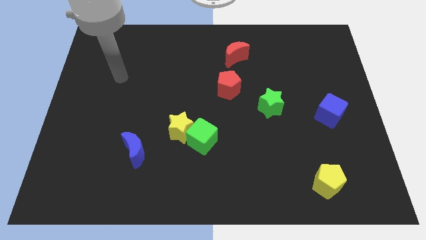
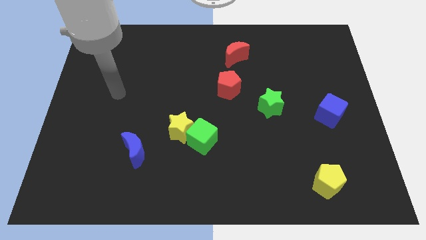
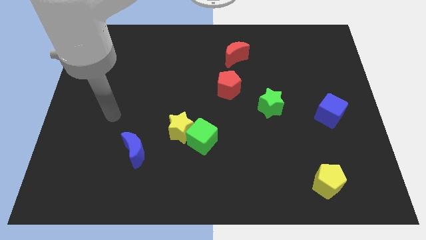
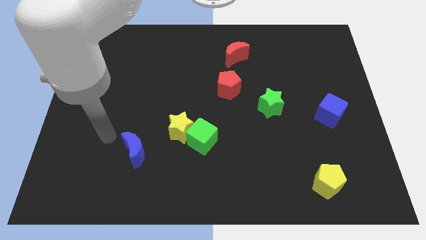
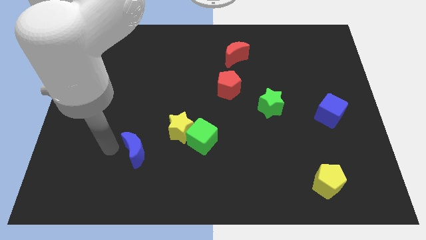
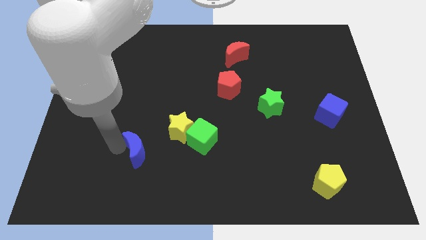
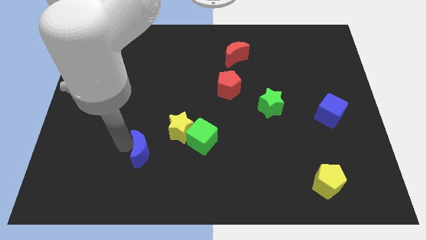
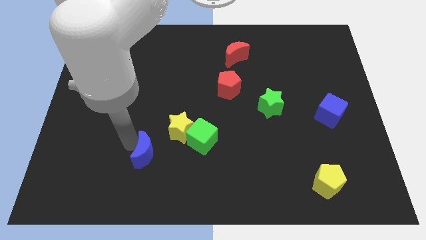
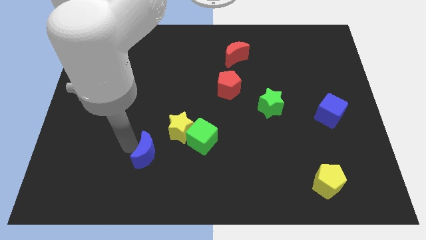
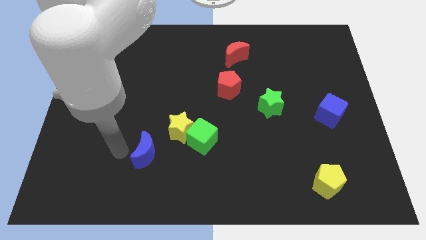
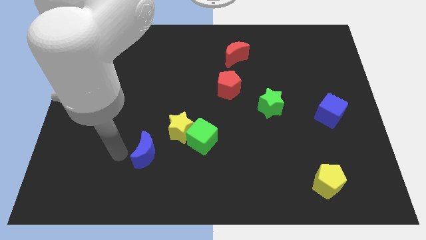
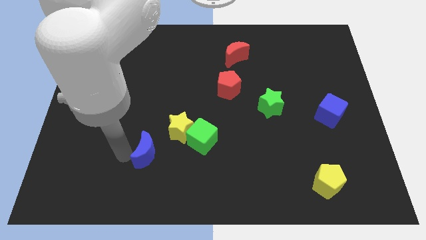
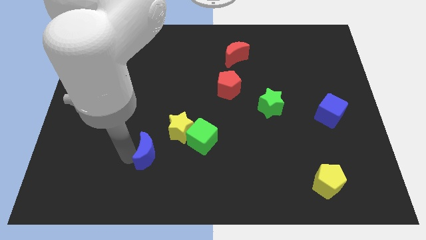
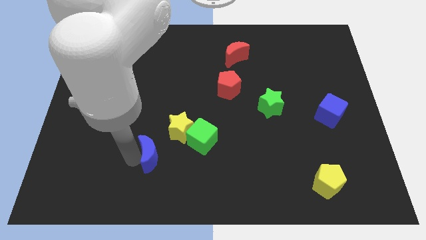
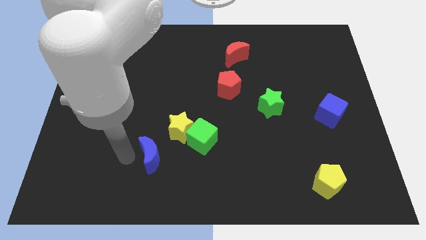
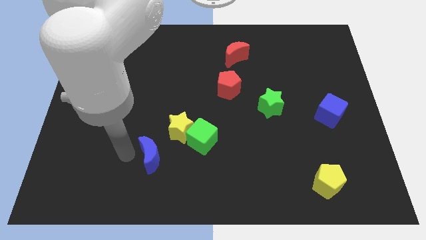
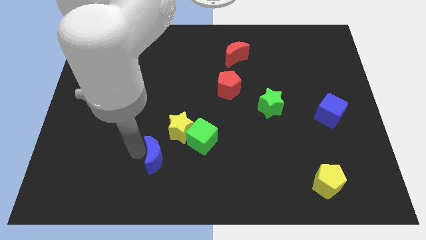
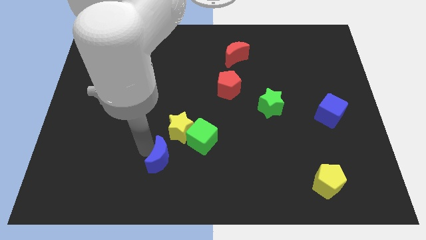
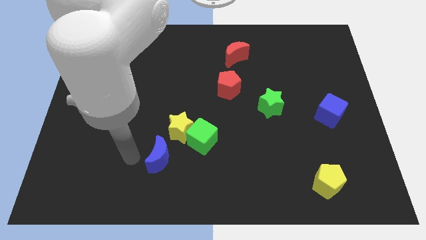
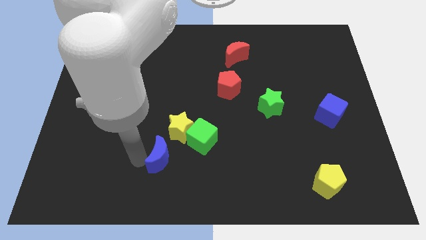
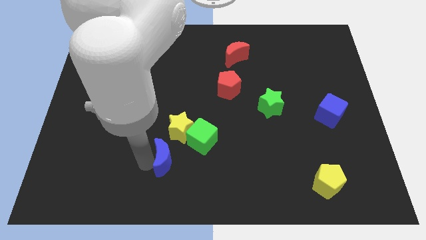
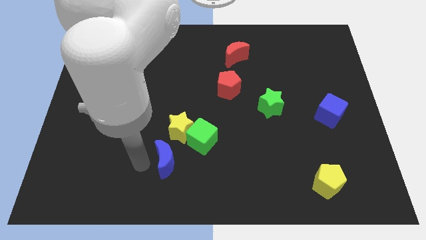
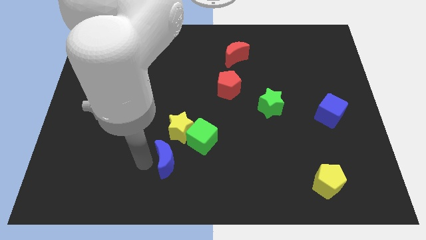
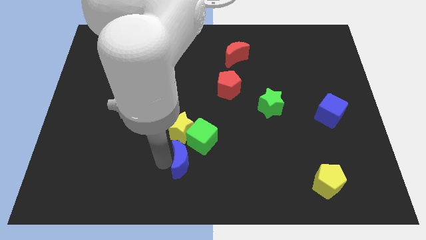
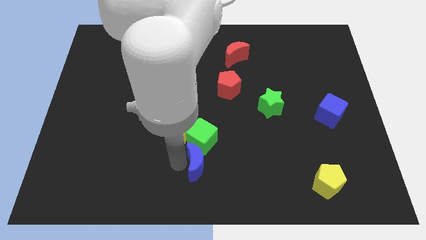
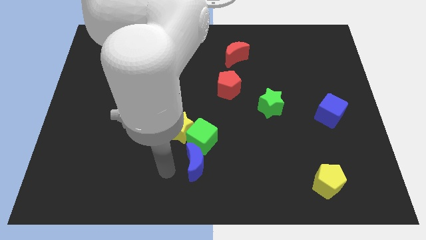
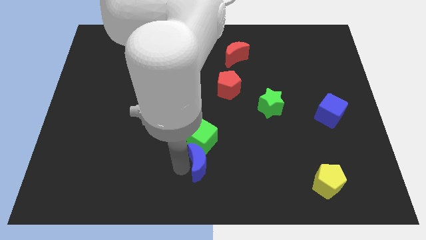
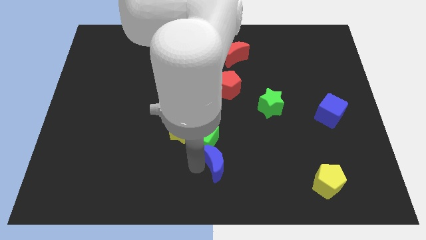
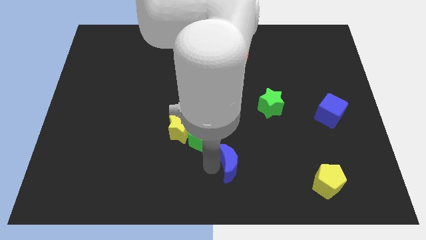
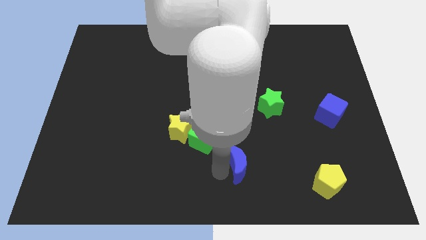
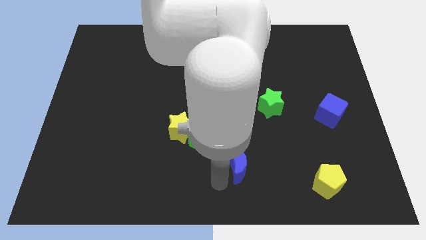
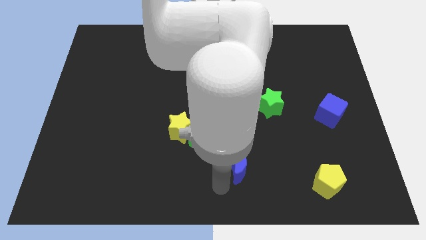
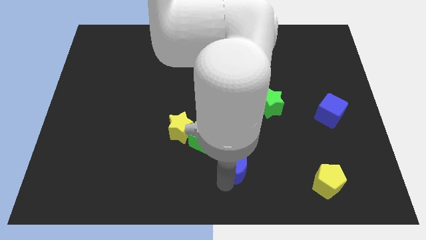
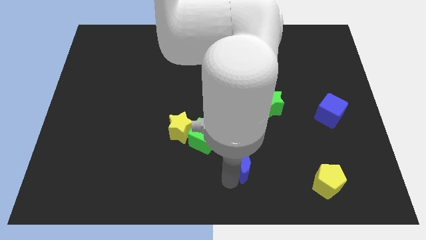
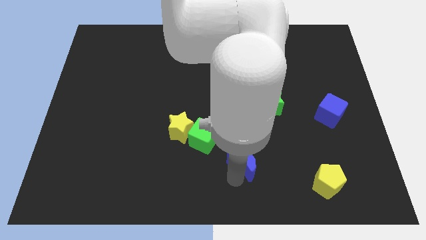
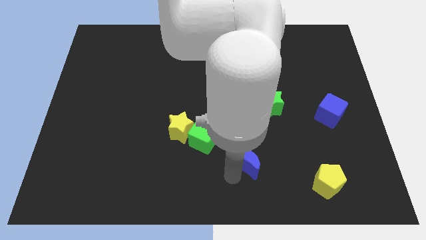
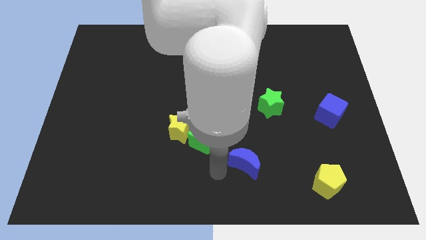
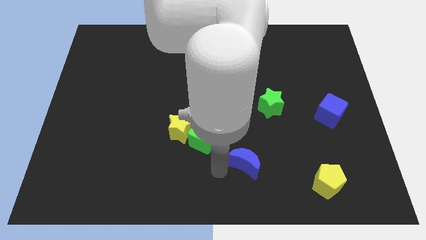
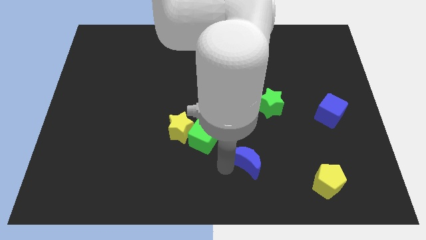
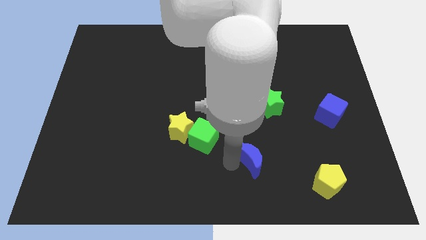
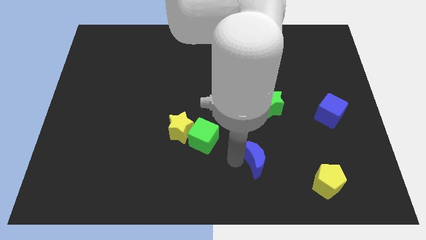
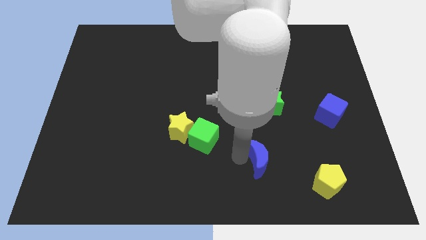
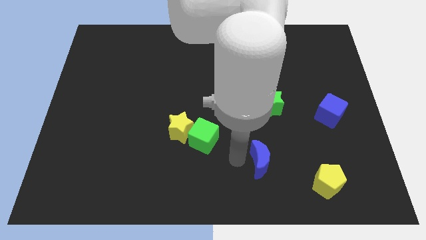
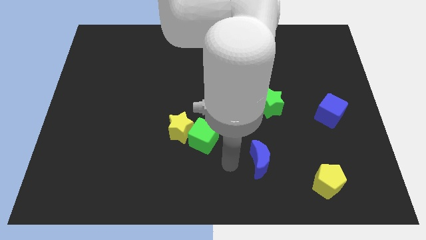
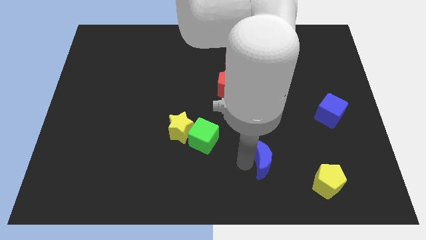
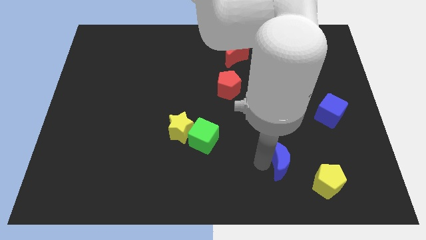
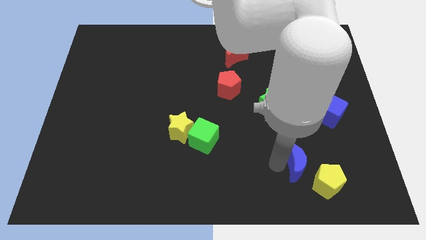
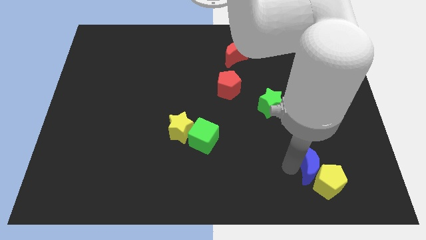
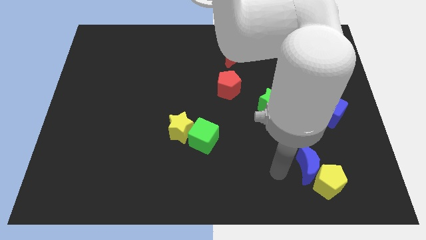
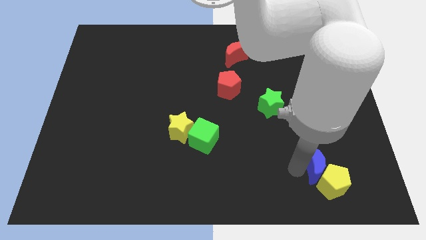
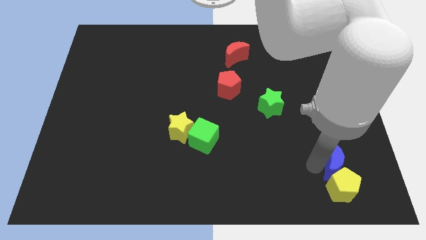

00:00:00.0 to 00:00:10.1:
move the blue moon diagonally up and to the right of the yellow pentagon

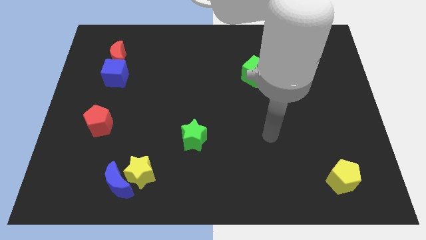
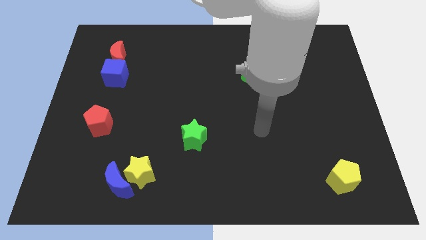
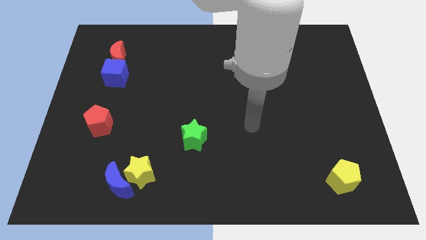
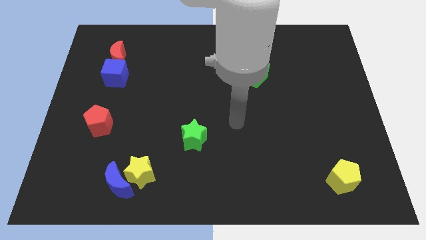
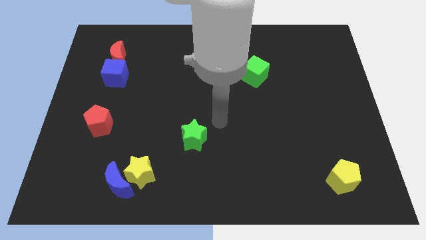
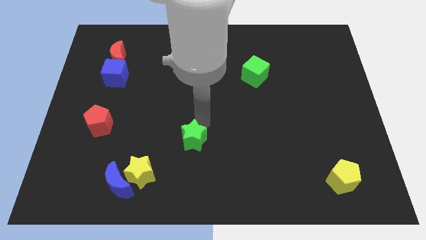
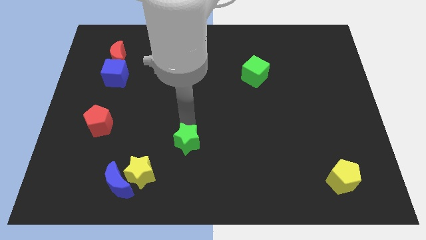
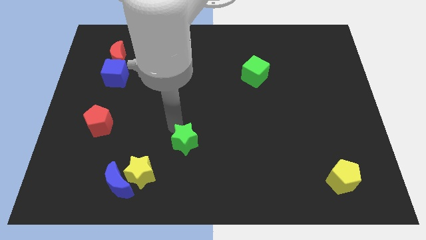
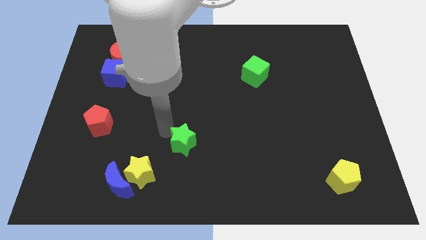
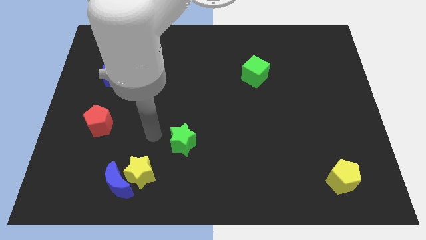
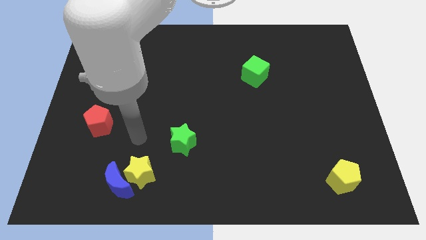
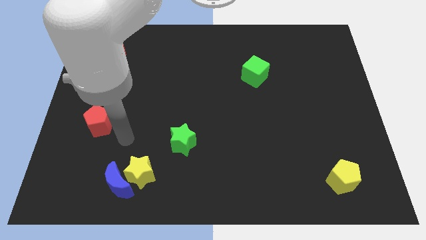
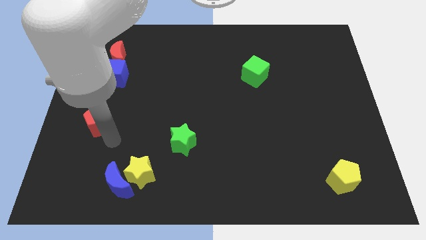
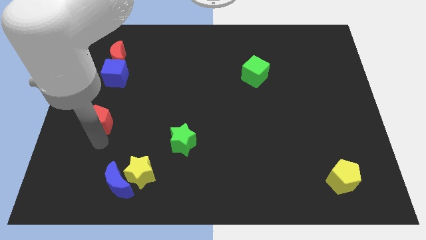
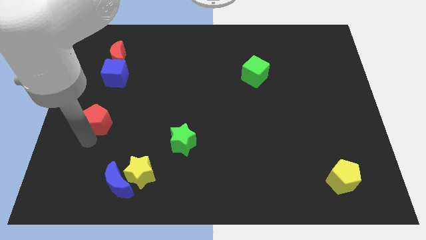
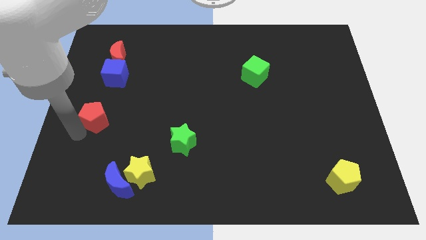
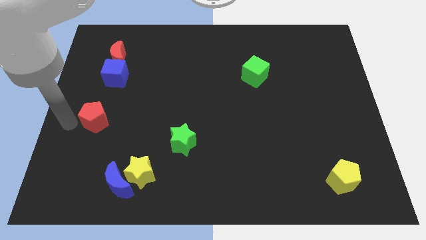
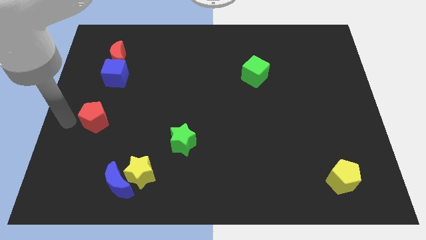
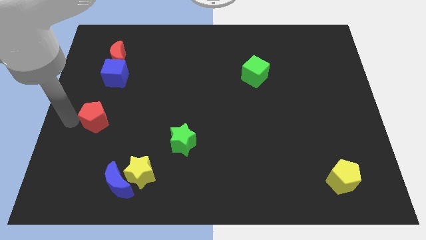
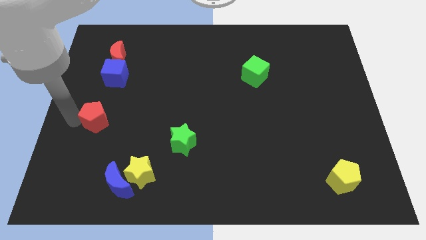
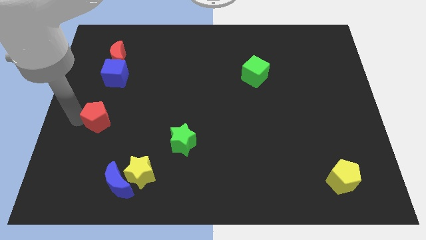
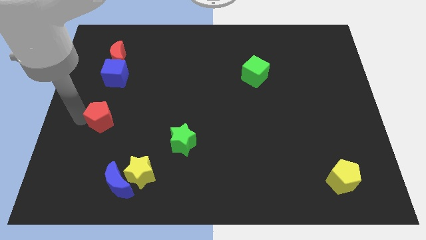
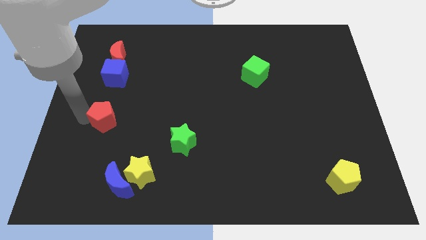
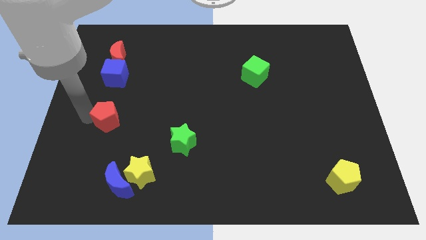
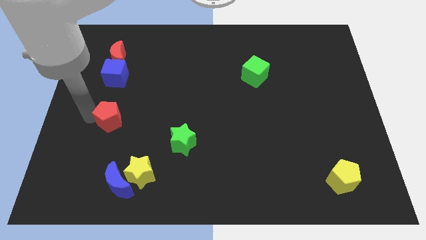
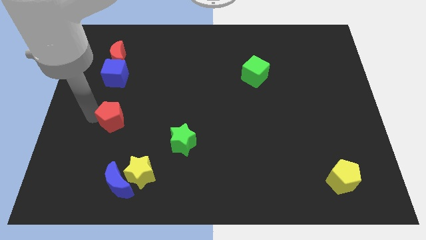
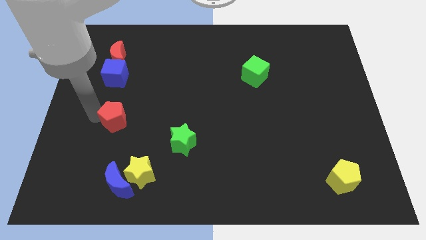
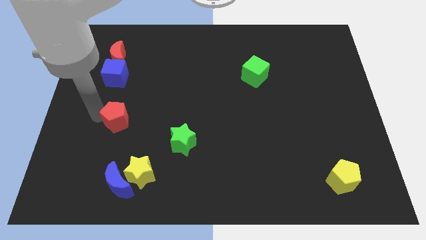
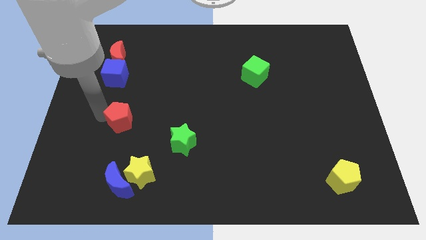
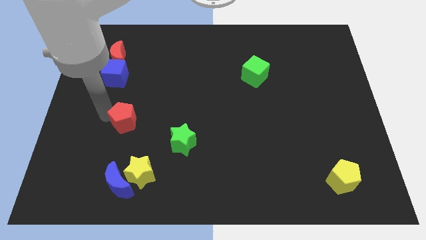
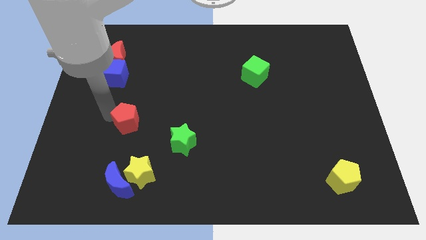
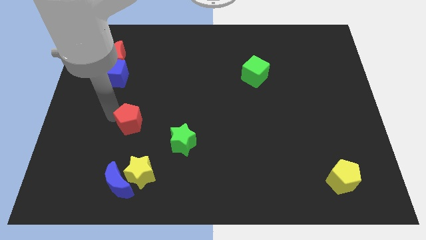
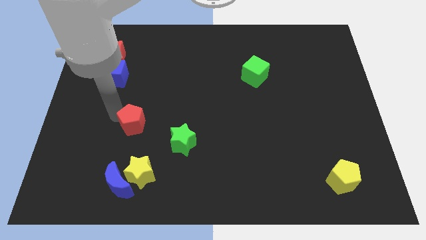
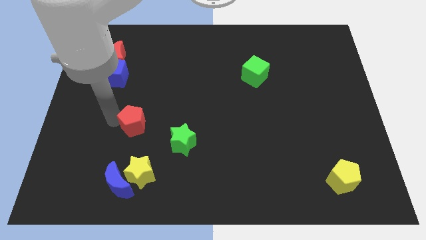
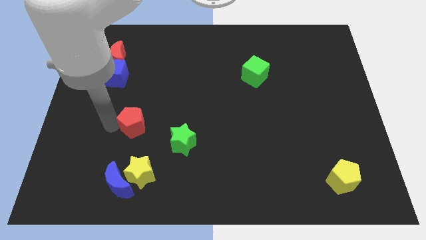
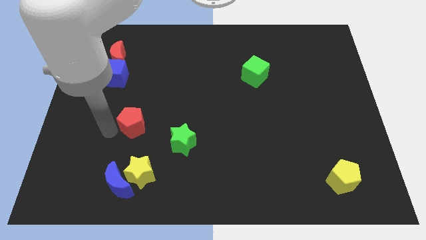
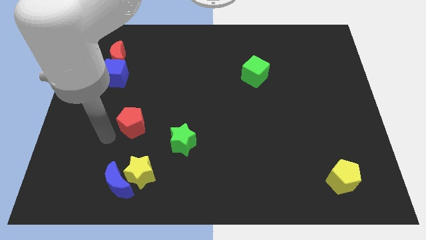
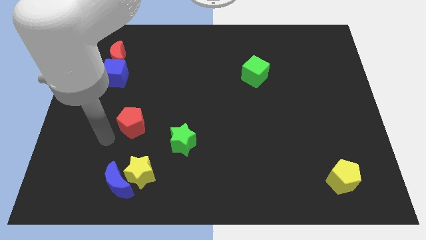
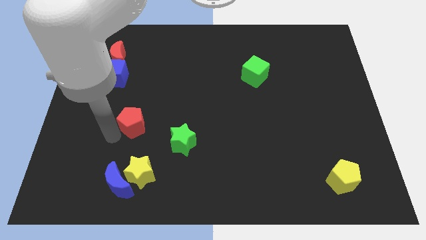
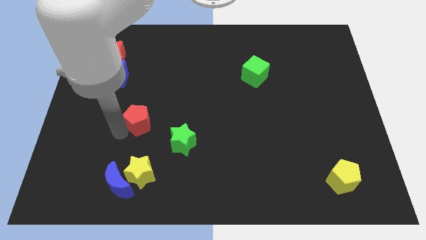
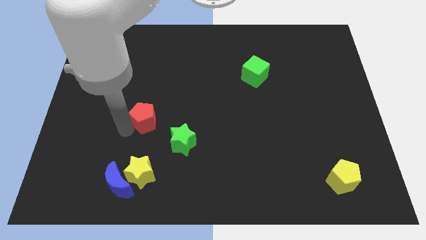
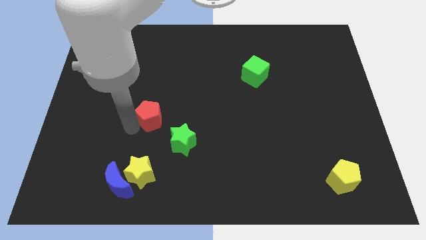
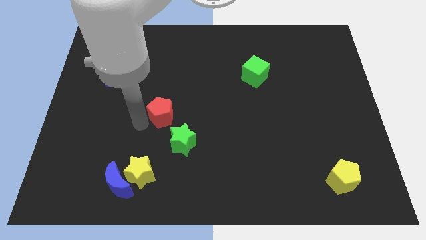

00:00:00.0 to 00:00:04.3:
move the red pentagon to the top side of the green star
